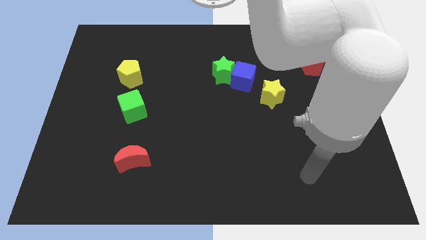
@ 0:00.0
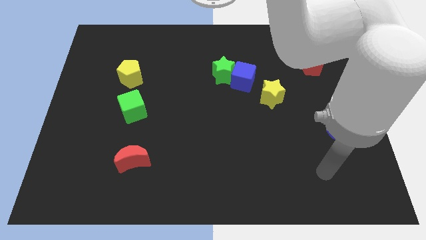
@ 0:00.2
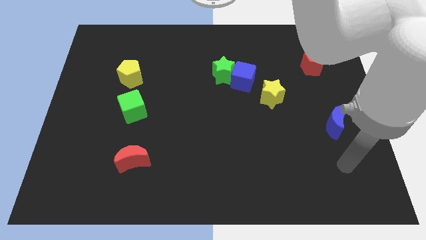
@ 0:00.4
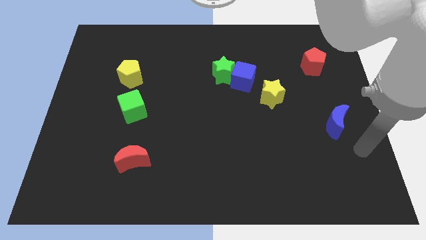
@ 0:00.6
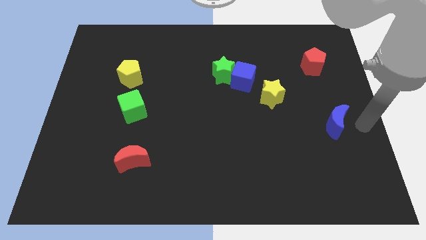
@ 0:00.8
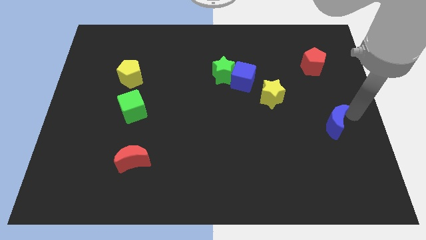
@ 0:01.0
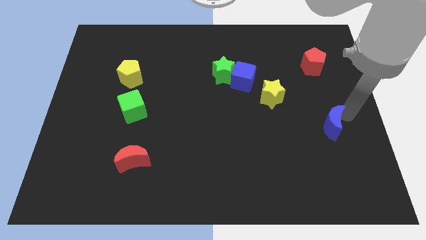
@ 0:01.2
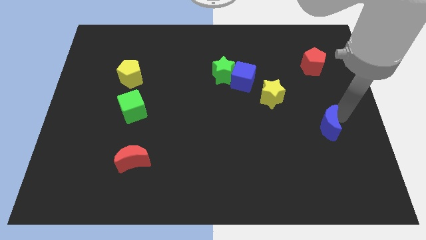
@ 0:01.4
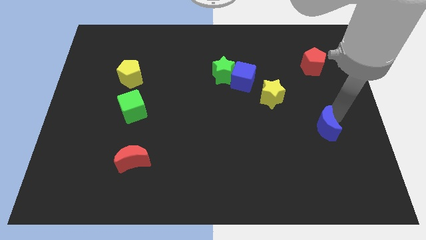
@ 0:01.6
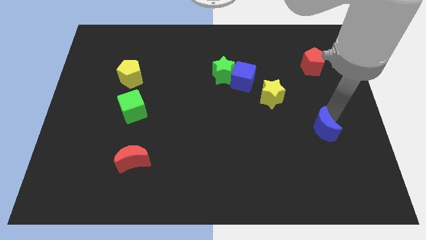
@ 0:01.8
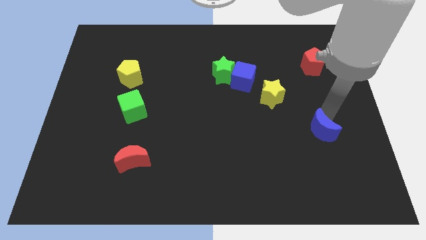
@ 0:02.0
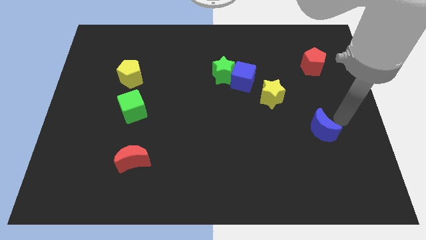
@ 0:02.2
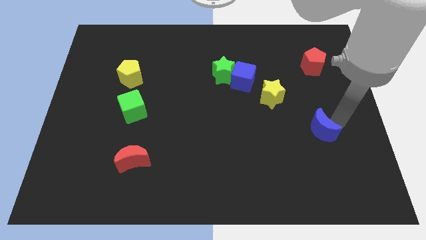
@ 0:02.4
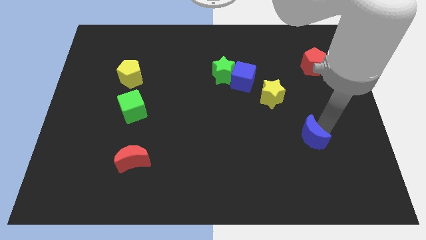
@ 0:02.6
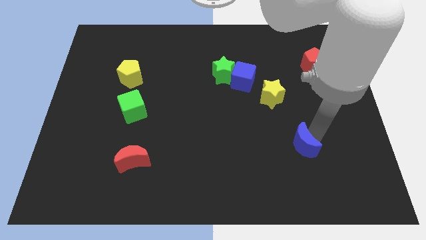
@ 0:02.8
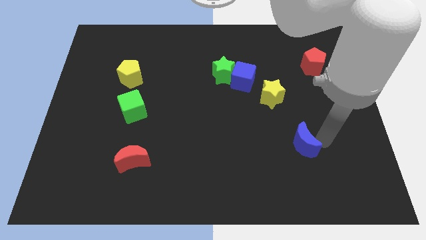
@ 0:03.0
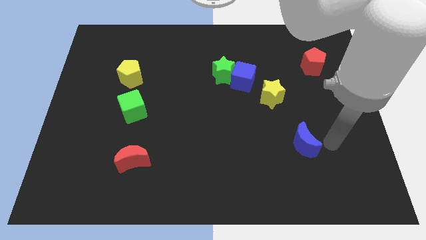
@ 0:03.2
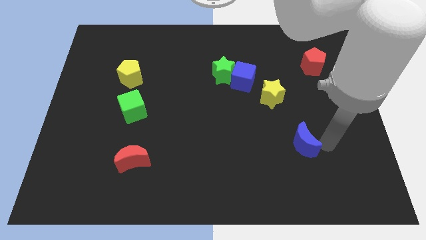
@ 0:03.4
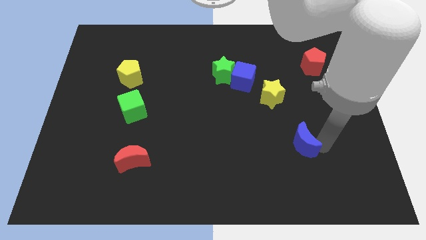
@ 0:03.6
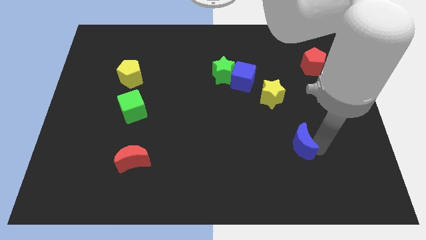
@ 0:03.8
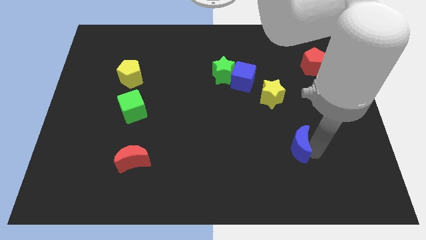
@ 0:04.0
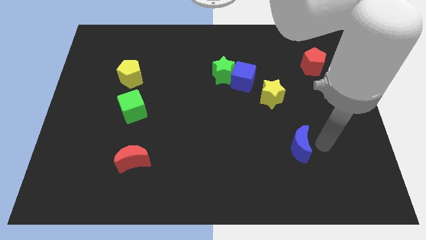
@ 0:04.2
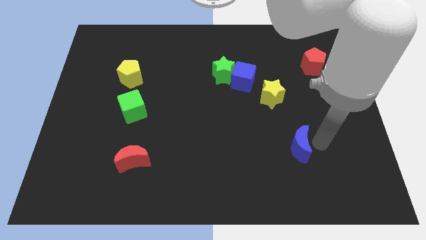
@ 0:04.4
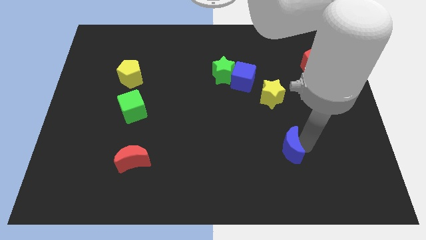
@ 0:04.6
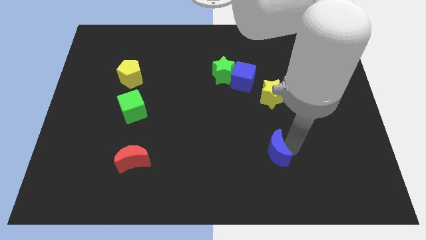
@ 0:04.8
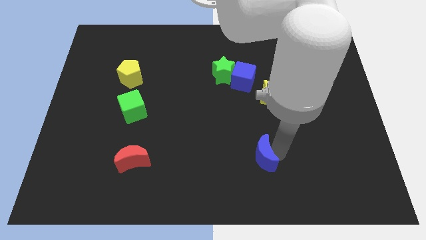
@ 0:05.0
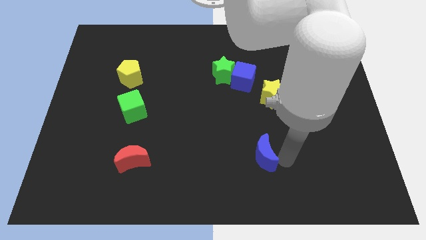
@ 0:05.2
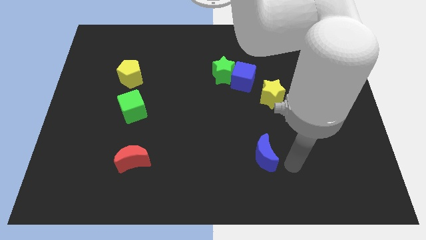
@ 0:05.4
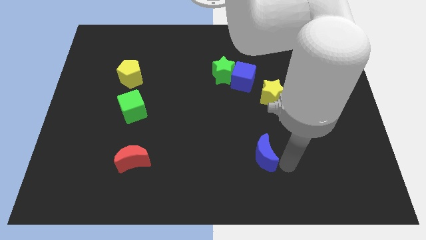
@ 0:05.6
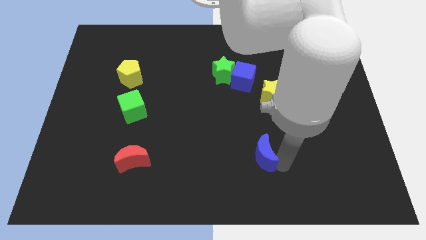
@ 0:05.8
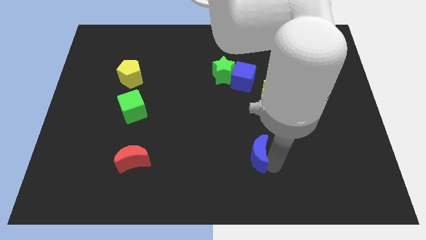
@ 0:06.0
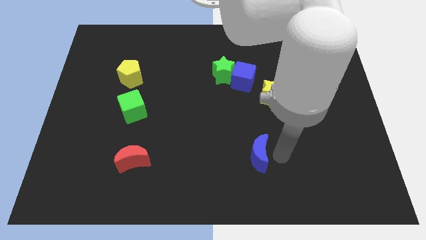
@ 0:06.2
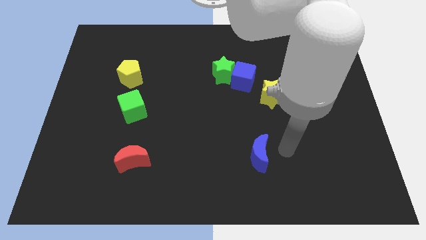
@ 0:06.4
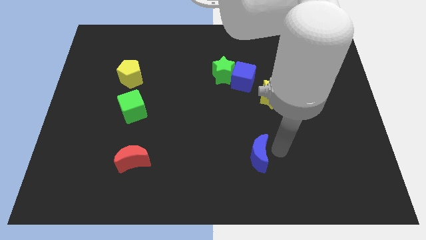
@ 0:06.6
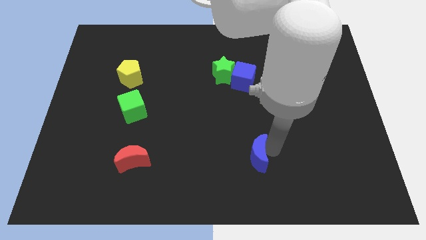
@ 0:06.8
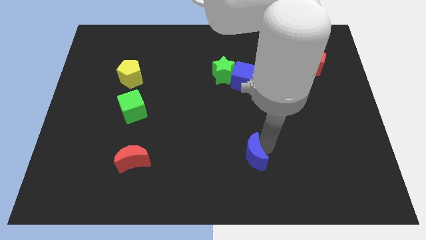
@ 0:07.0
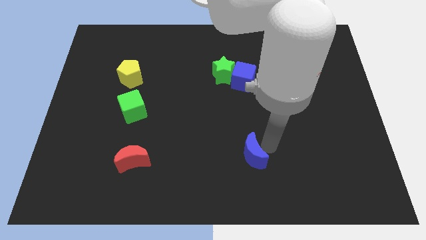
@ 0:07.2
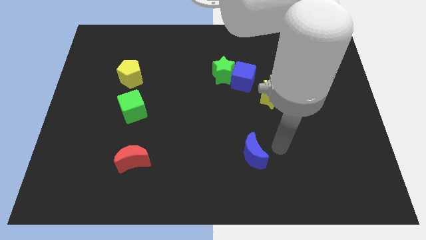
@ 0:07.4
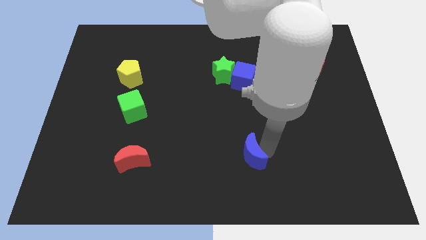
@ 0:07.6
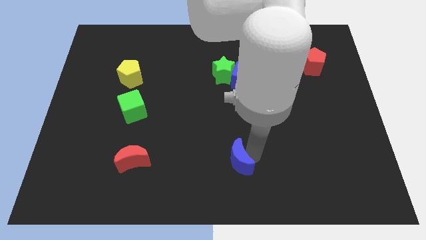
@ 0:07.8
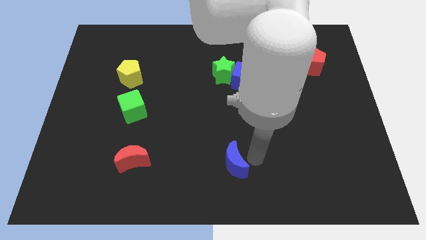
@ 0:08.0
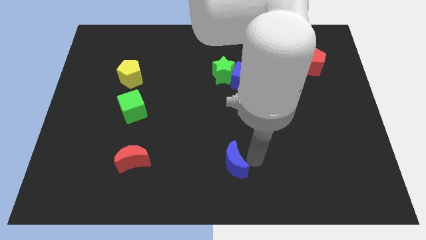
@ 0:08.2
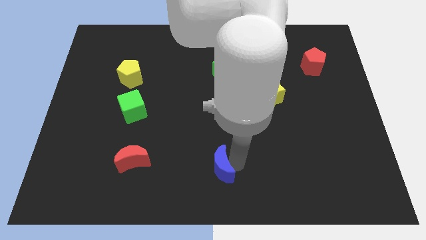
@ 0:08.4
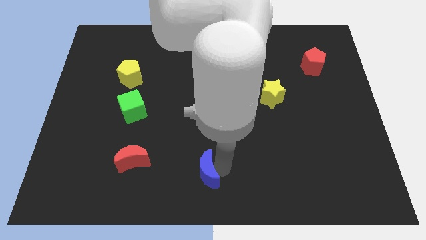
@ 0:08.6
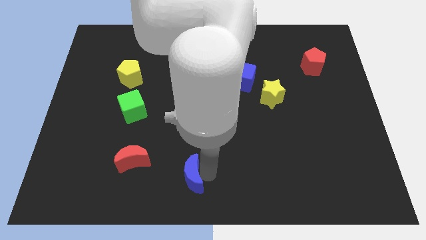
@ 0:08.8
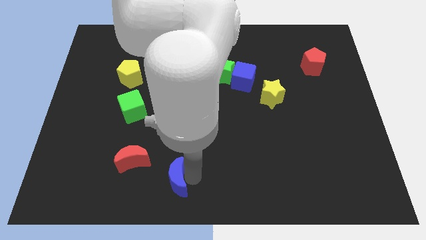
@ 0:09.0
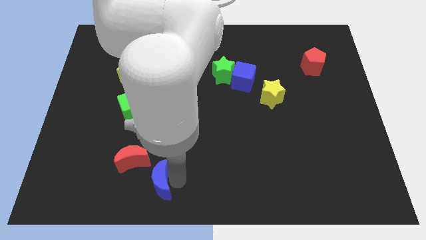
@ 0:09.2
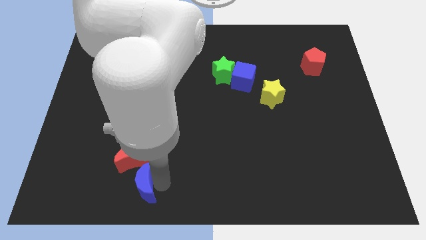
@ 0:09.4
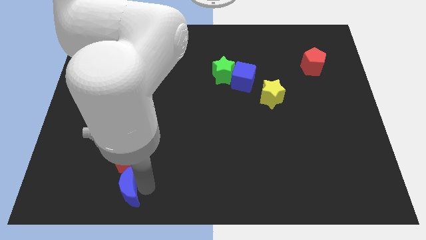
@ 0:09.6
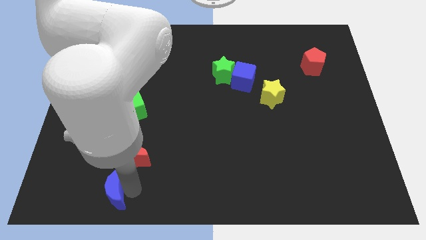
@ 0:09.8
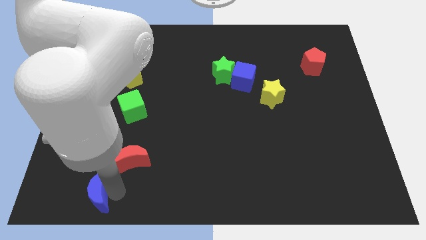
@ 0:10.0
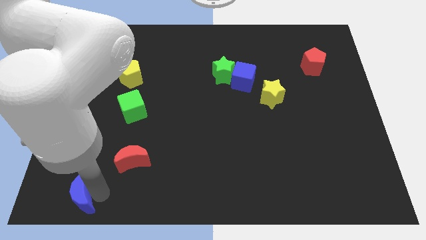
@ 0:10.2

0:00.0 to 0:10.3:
move the blue moon to the bottom left of the board

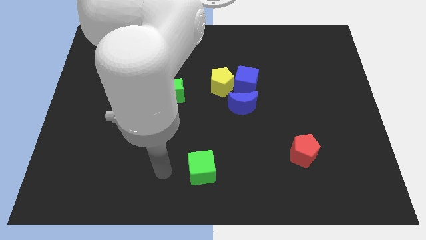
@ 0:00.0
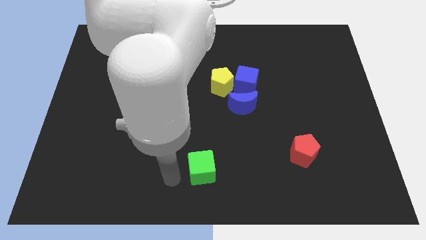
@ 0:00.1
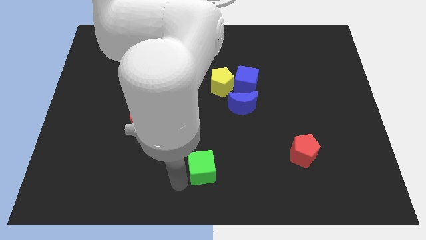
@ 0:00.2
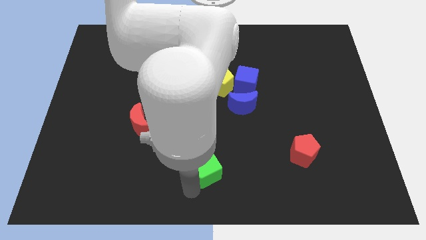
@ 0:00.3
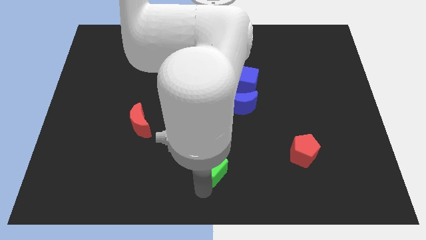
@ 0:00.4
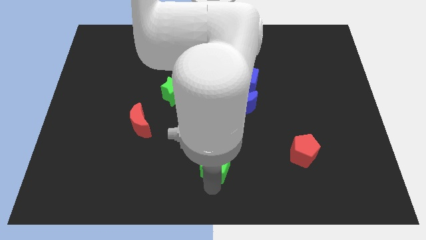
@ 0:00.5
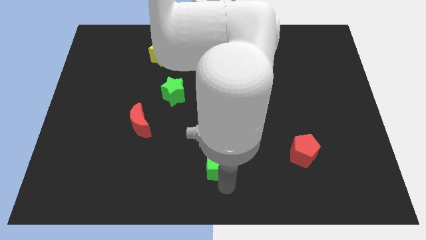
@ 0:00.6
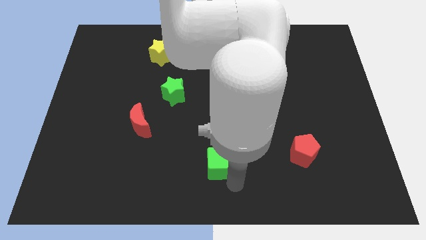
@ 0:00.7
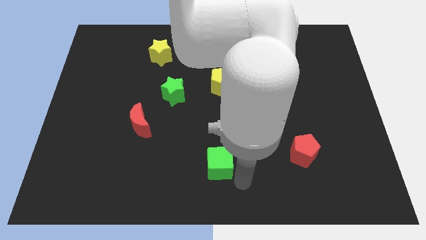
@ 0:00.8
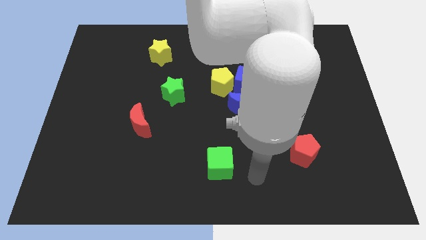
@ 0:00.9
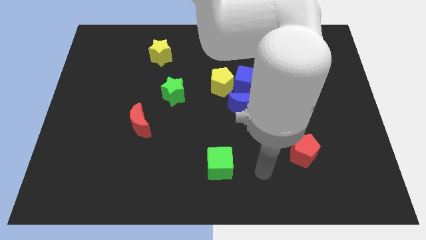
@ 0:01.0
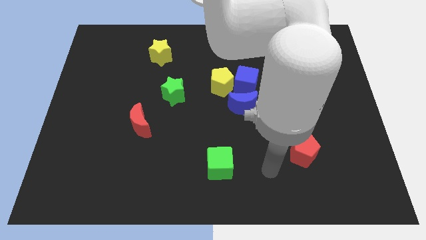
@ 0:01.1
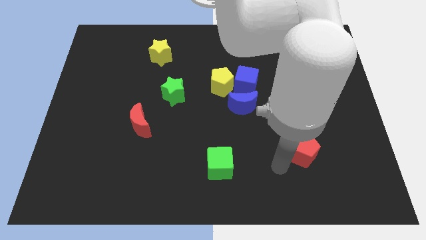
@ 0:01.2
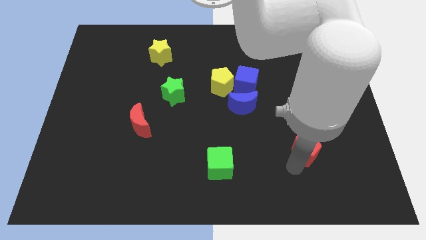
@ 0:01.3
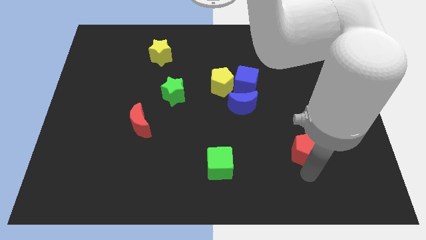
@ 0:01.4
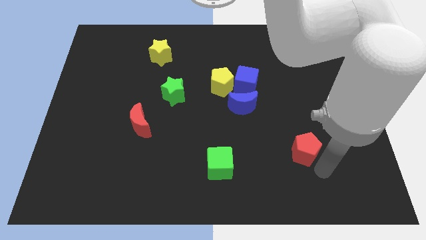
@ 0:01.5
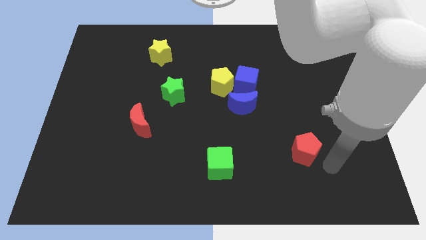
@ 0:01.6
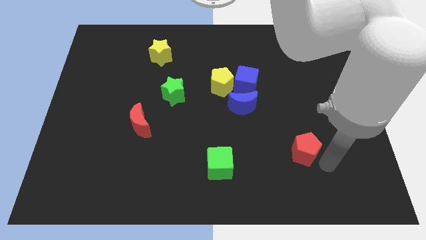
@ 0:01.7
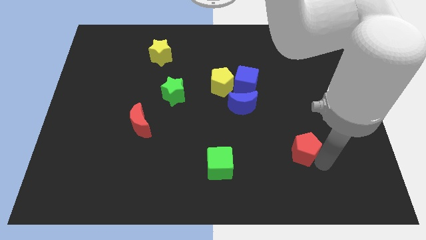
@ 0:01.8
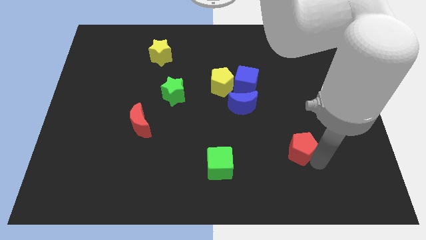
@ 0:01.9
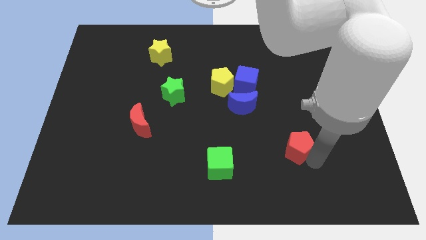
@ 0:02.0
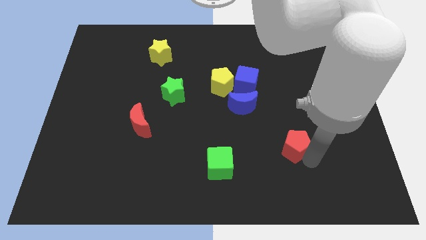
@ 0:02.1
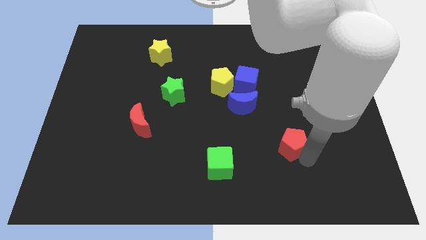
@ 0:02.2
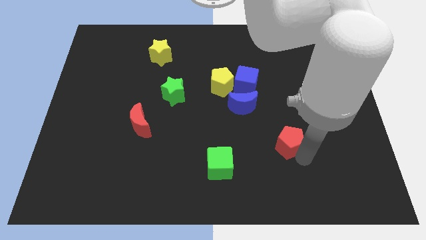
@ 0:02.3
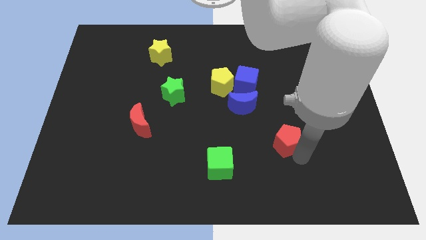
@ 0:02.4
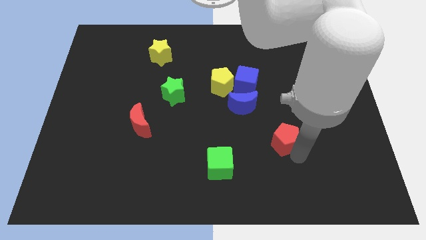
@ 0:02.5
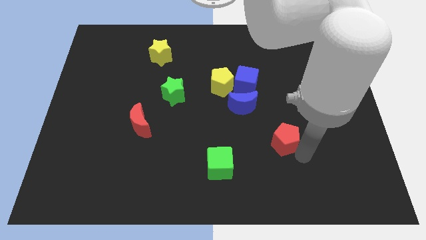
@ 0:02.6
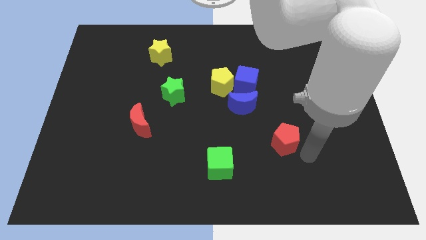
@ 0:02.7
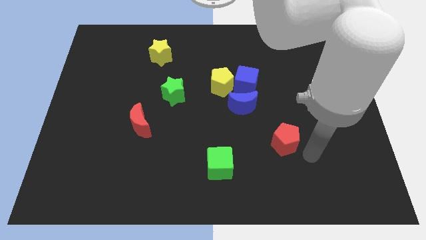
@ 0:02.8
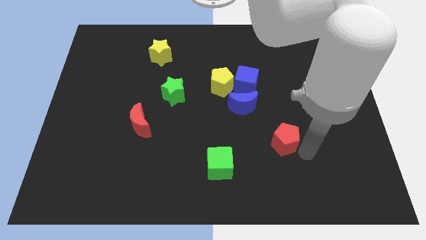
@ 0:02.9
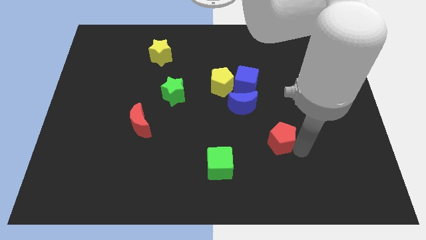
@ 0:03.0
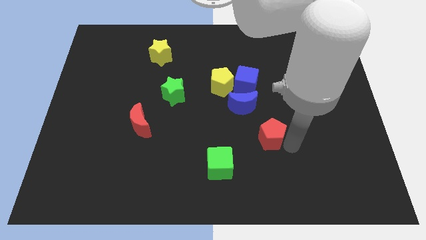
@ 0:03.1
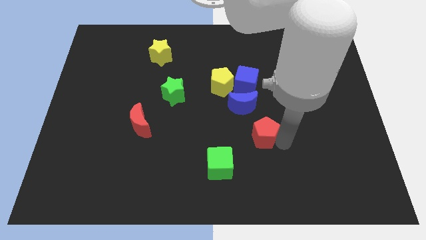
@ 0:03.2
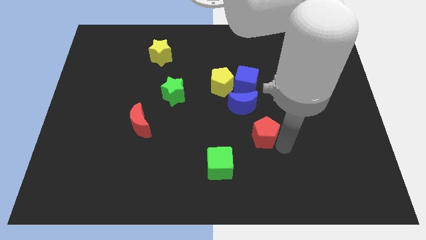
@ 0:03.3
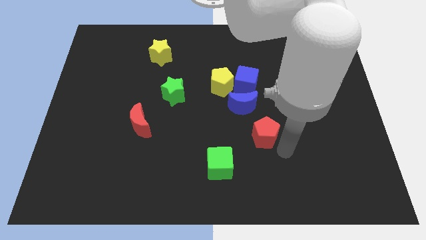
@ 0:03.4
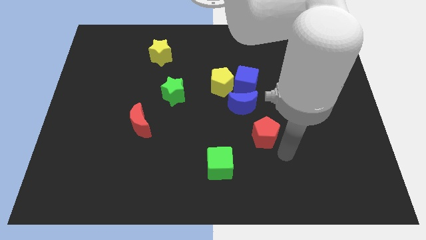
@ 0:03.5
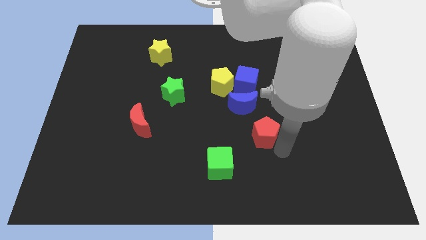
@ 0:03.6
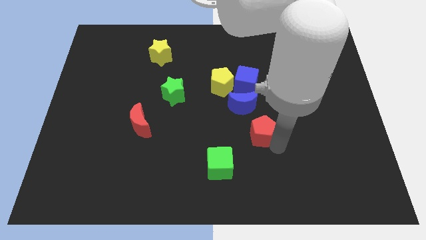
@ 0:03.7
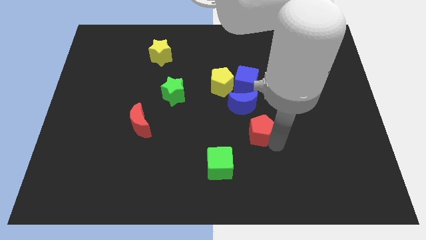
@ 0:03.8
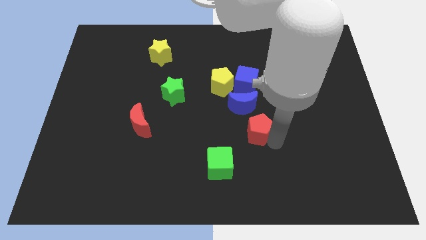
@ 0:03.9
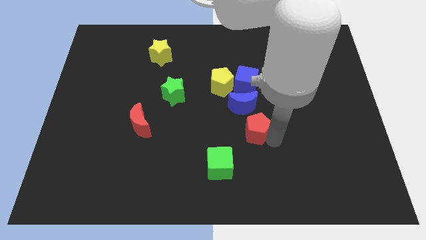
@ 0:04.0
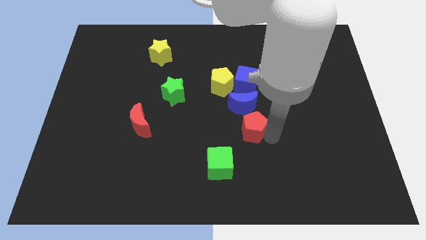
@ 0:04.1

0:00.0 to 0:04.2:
put the red pentagon to the middle
